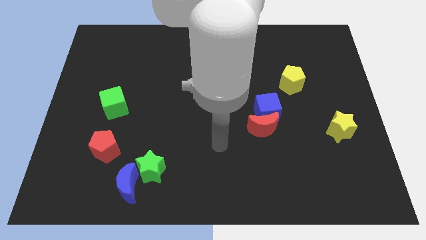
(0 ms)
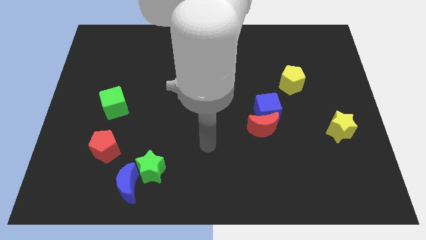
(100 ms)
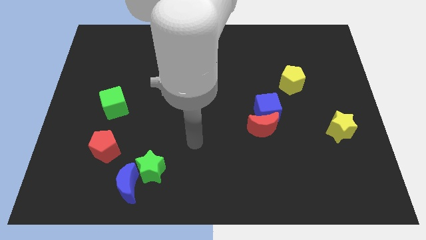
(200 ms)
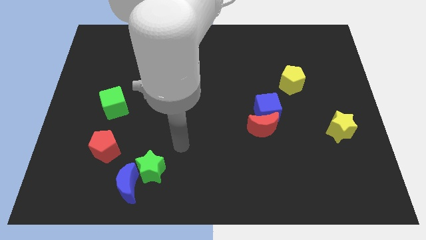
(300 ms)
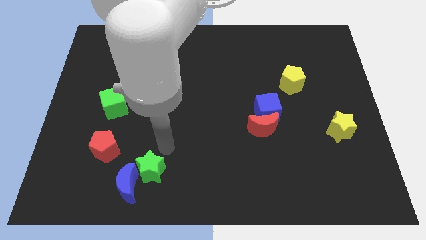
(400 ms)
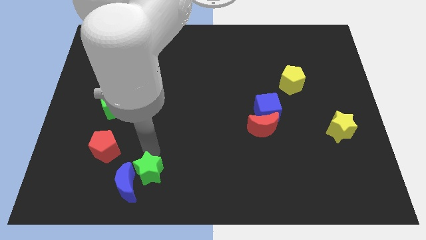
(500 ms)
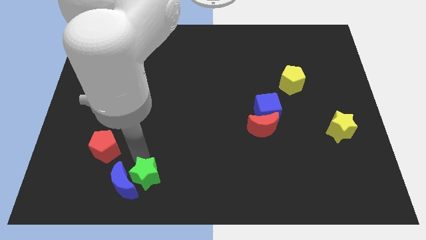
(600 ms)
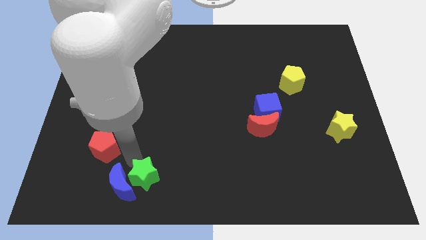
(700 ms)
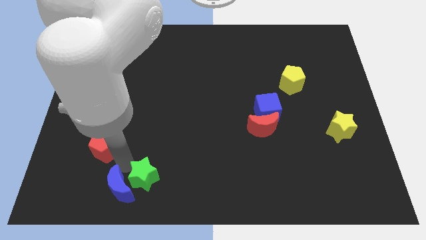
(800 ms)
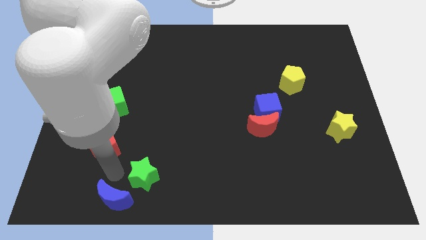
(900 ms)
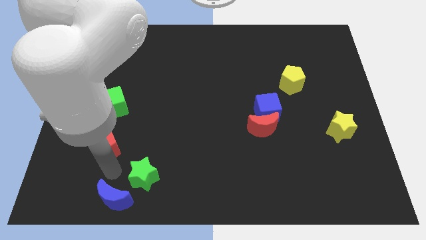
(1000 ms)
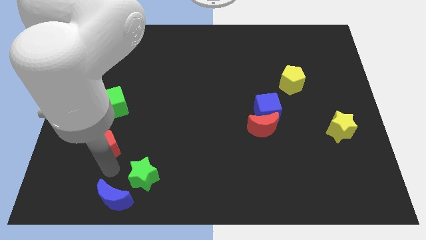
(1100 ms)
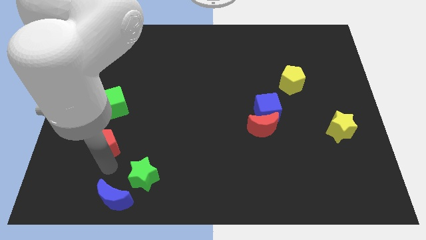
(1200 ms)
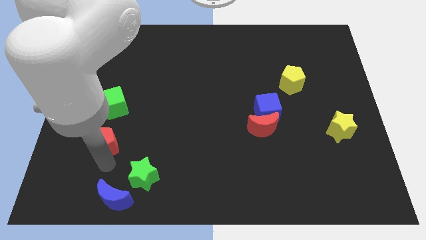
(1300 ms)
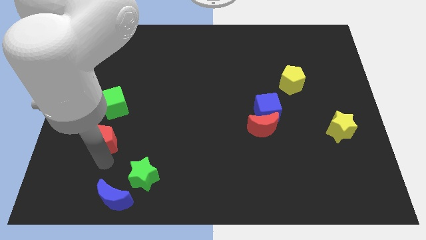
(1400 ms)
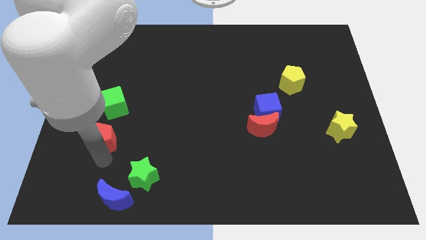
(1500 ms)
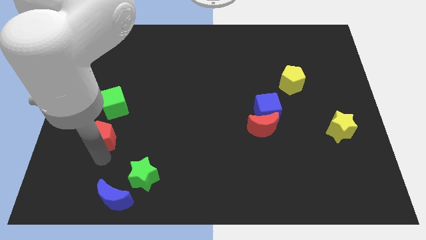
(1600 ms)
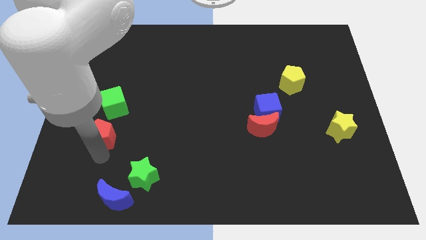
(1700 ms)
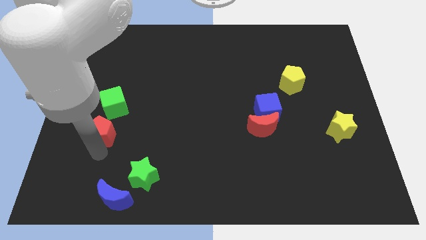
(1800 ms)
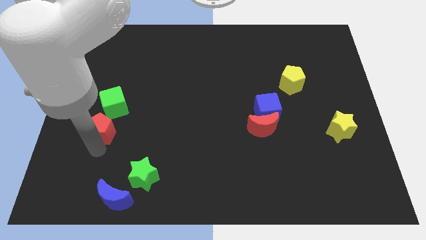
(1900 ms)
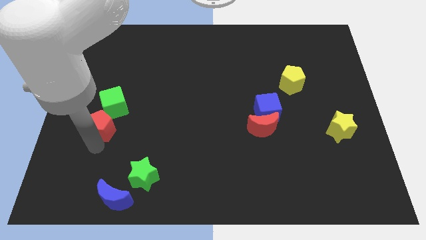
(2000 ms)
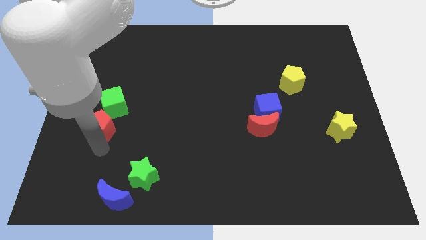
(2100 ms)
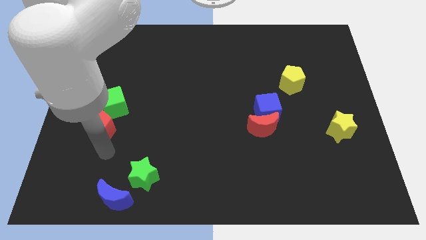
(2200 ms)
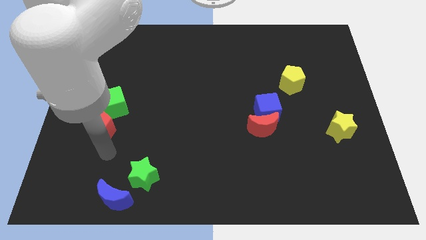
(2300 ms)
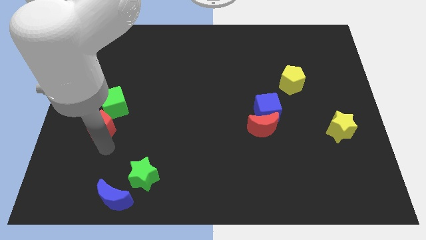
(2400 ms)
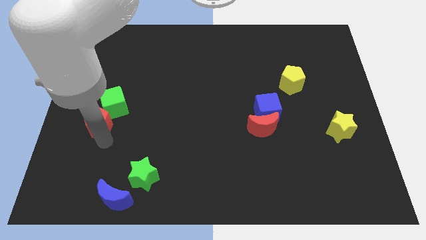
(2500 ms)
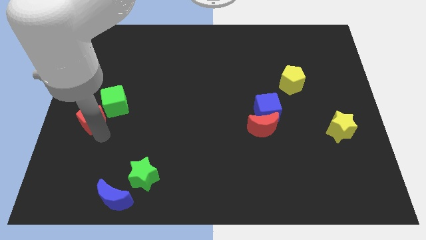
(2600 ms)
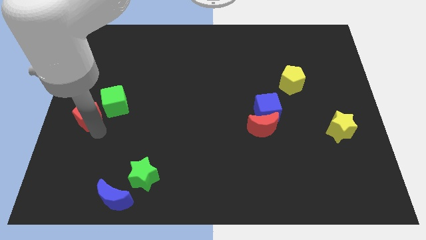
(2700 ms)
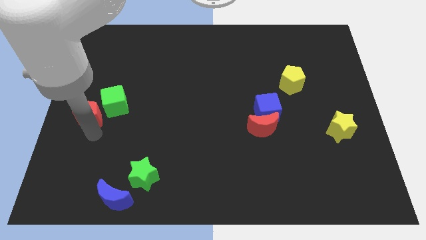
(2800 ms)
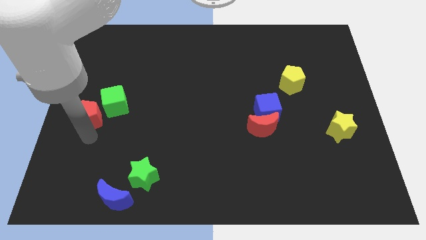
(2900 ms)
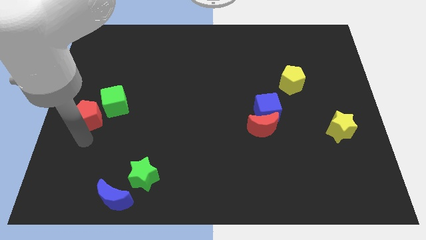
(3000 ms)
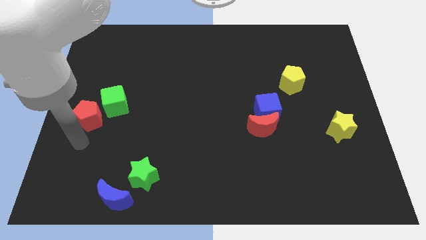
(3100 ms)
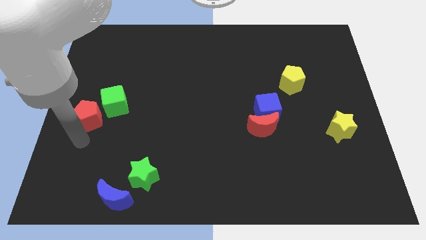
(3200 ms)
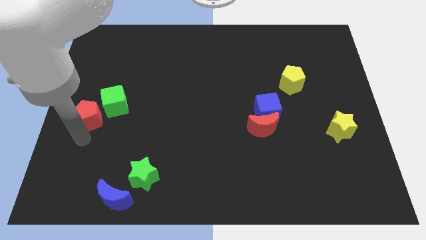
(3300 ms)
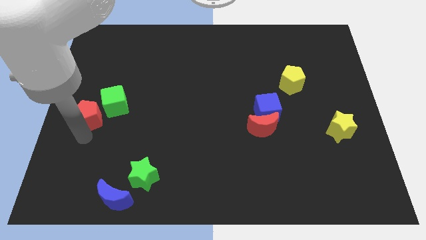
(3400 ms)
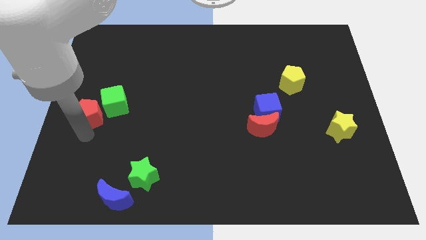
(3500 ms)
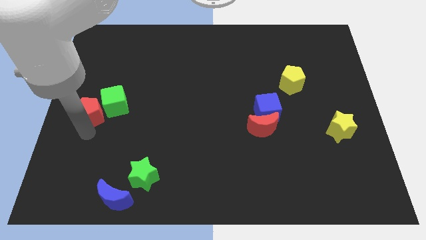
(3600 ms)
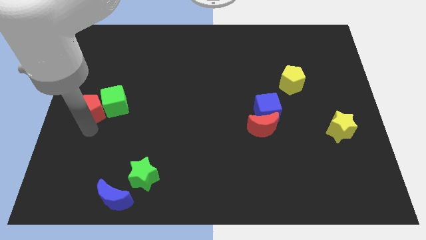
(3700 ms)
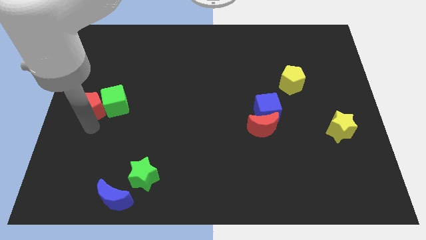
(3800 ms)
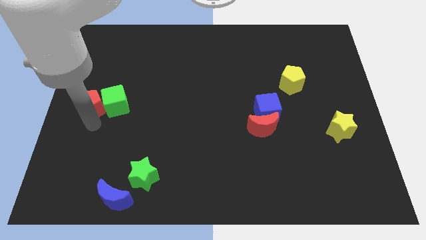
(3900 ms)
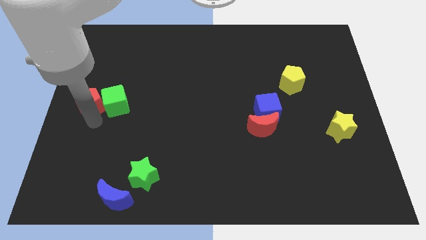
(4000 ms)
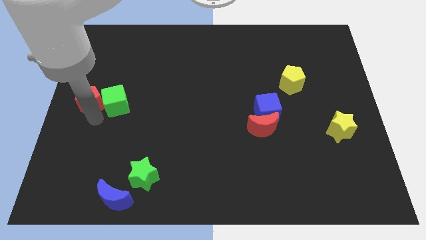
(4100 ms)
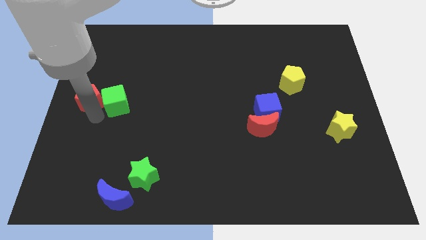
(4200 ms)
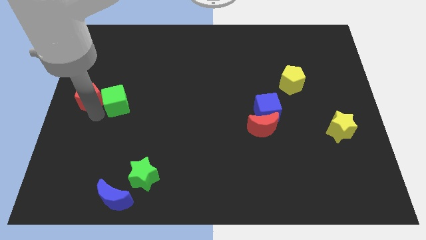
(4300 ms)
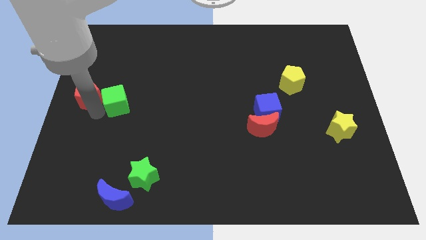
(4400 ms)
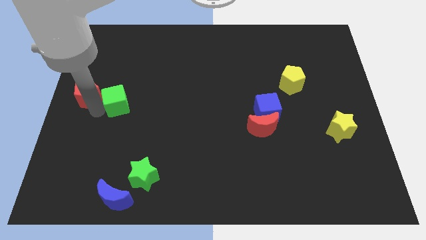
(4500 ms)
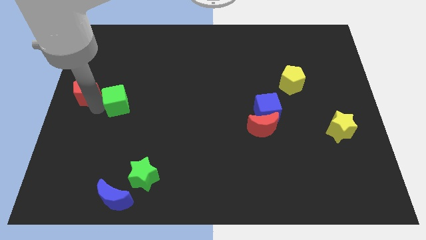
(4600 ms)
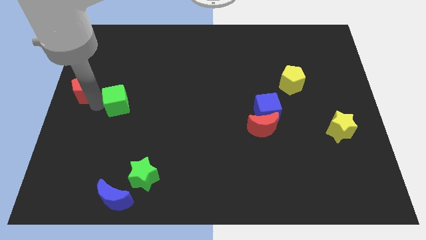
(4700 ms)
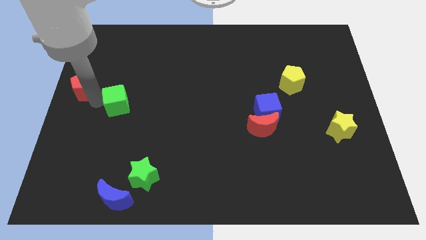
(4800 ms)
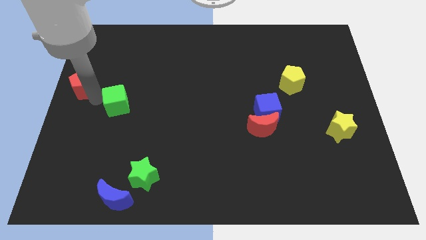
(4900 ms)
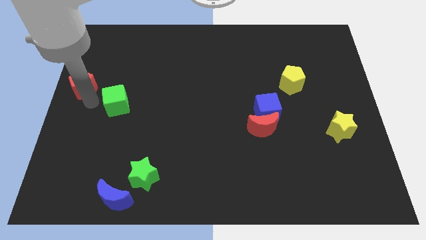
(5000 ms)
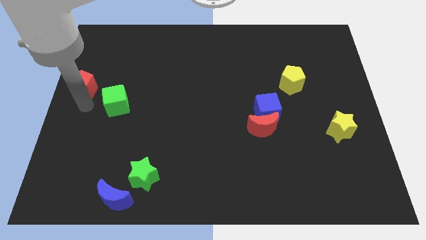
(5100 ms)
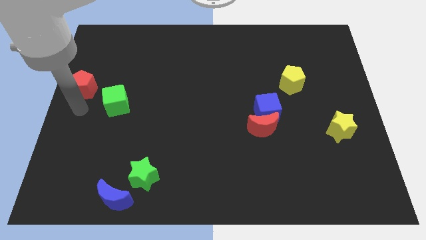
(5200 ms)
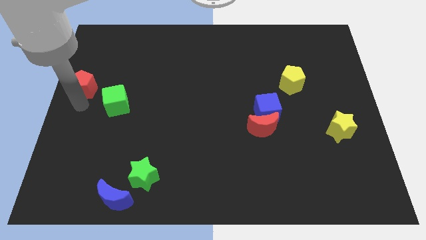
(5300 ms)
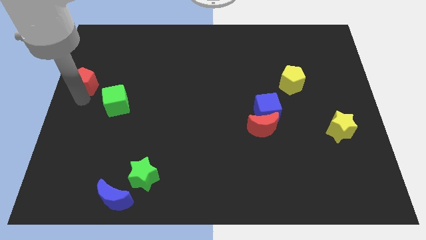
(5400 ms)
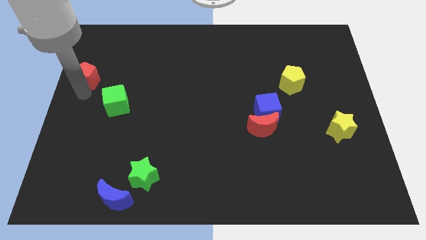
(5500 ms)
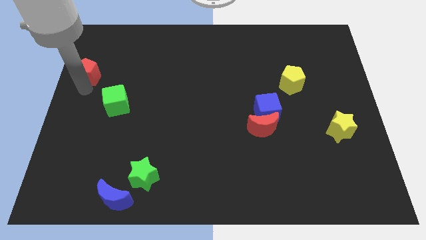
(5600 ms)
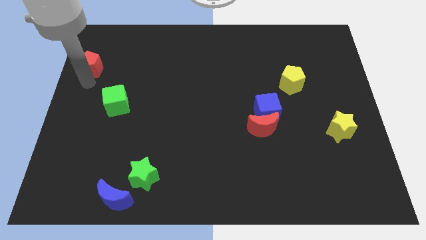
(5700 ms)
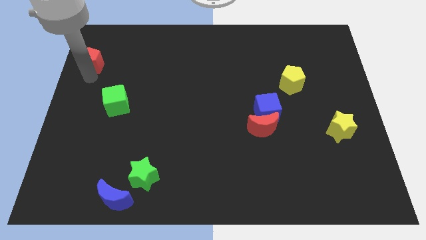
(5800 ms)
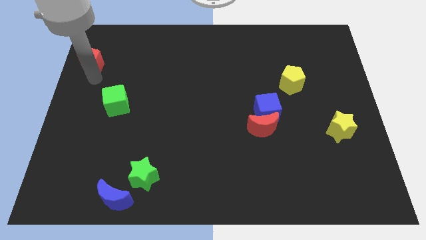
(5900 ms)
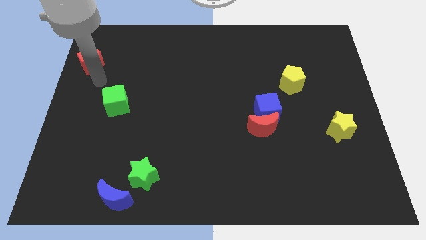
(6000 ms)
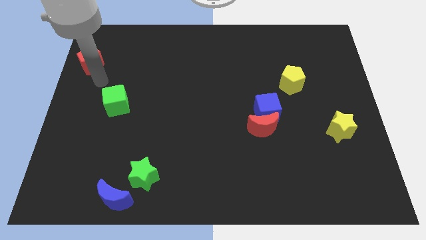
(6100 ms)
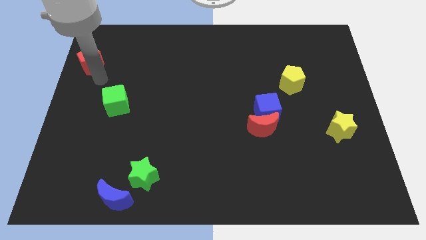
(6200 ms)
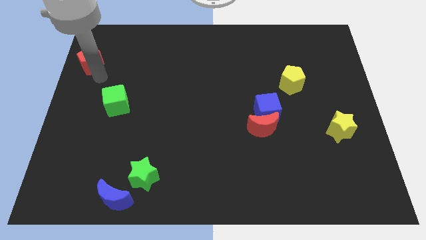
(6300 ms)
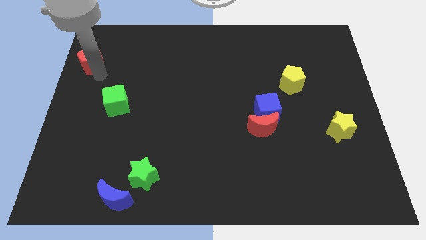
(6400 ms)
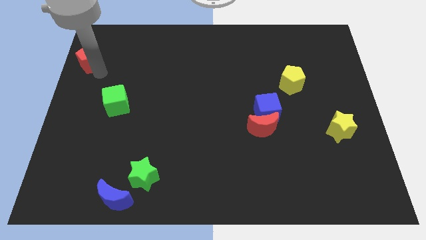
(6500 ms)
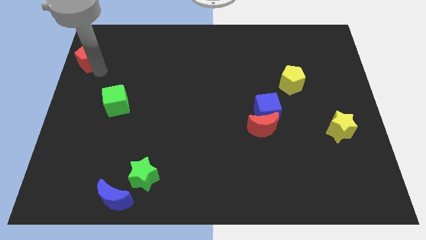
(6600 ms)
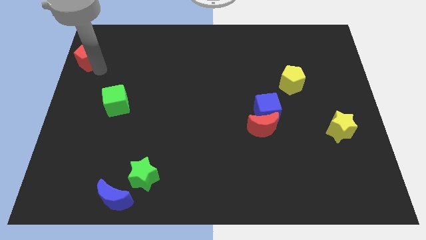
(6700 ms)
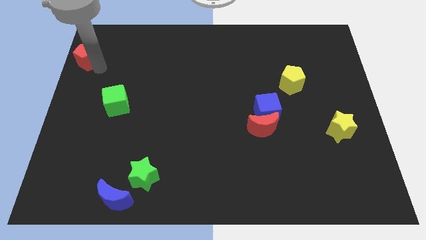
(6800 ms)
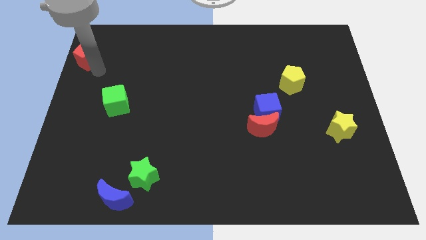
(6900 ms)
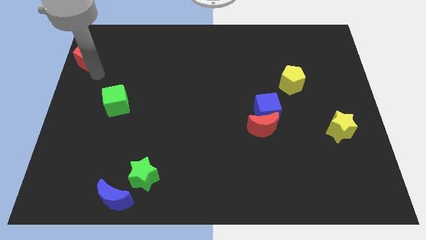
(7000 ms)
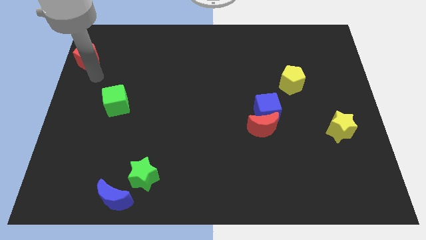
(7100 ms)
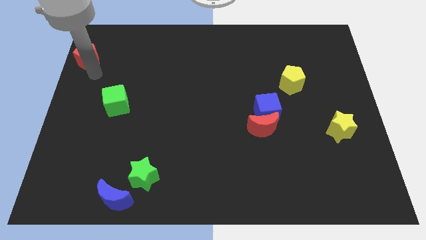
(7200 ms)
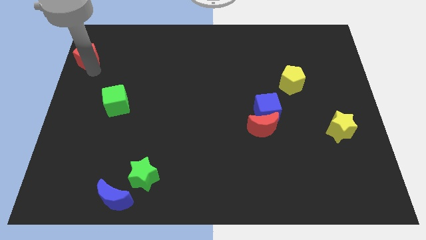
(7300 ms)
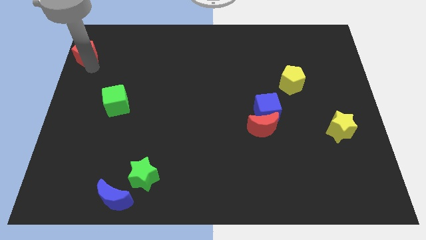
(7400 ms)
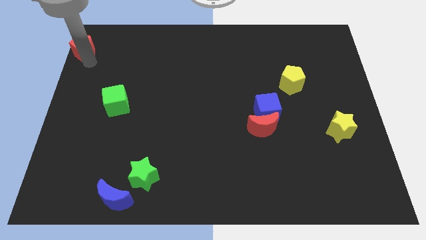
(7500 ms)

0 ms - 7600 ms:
push the red pentagon to the top left
